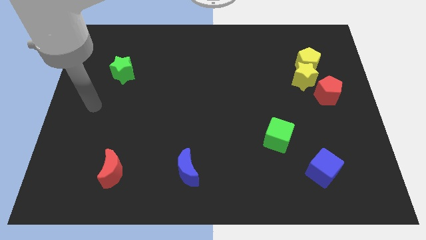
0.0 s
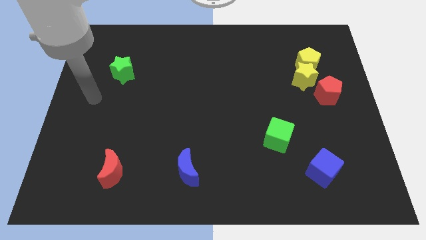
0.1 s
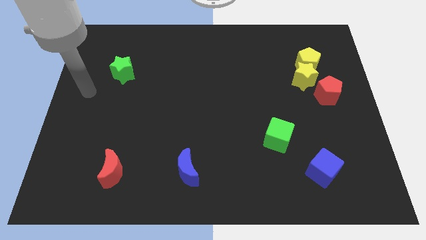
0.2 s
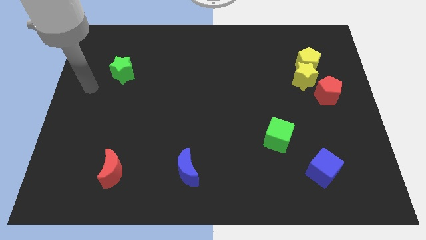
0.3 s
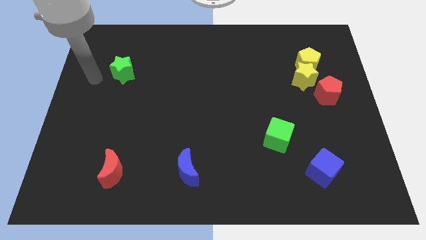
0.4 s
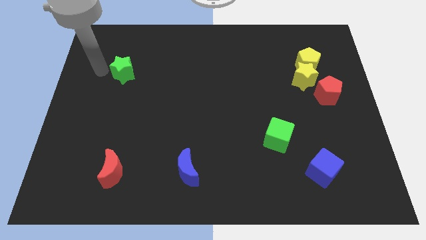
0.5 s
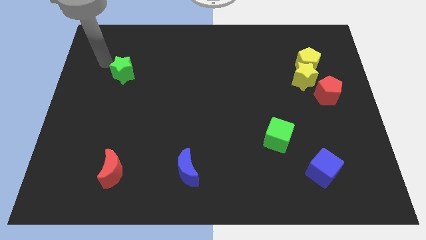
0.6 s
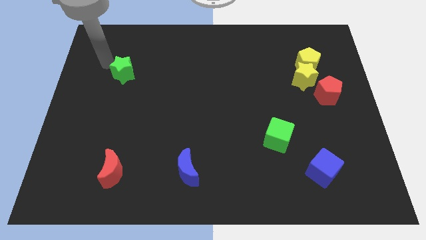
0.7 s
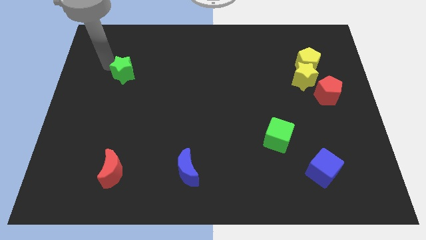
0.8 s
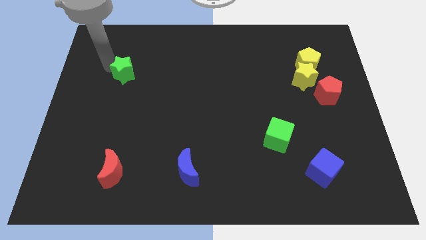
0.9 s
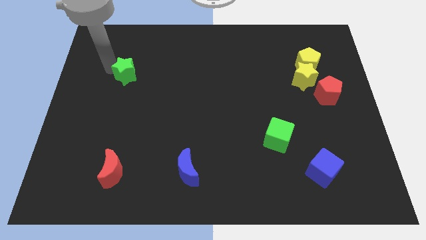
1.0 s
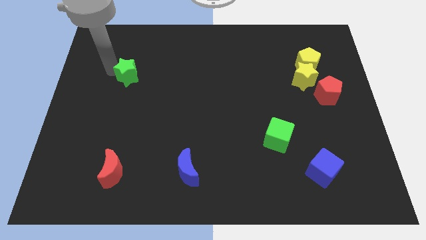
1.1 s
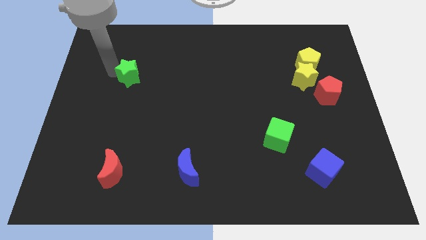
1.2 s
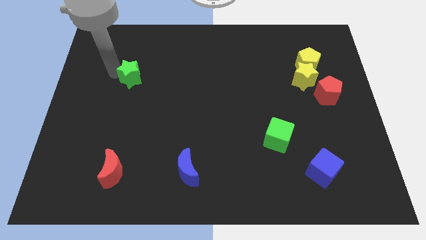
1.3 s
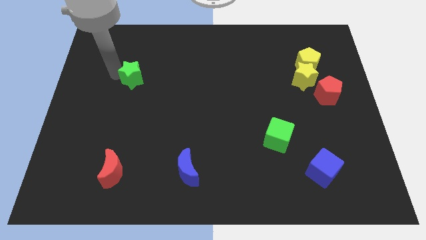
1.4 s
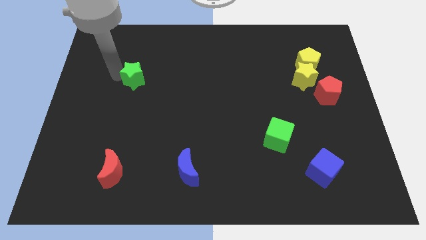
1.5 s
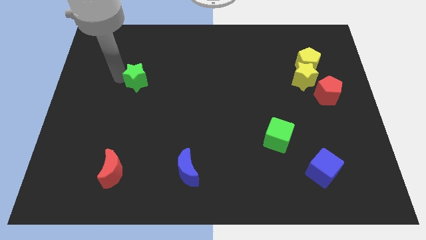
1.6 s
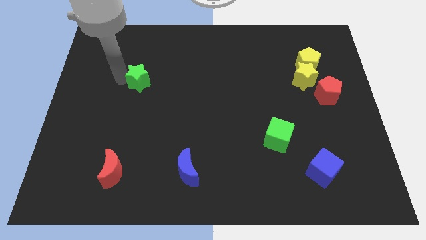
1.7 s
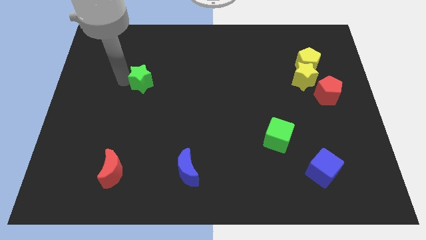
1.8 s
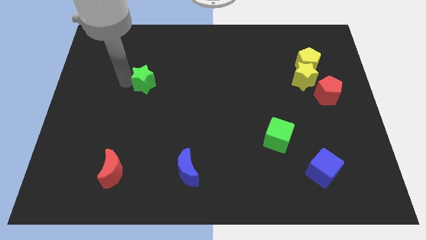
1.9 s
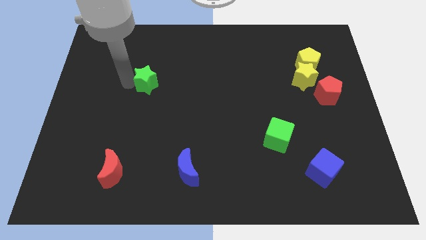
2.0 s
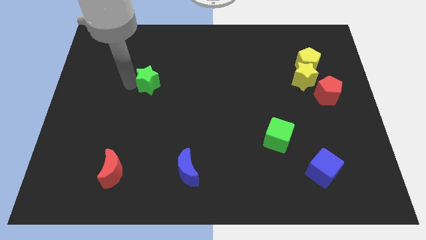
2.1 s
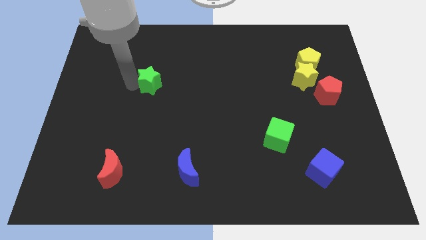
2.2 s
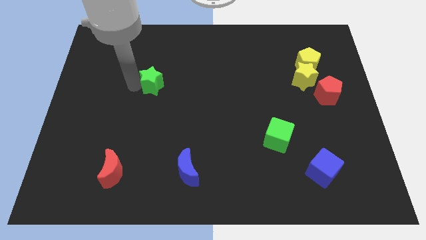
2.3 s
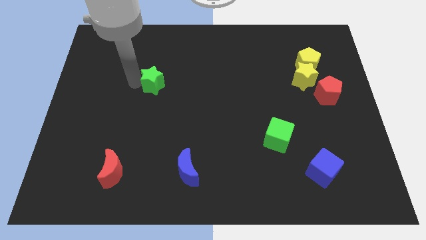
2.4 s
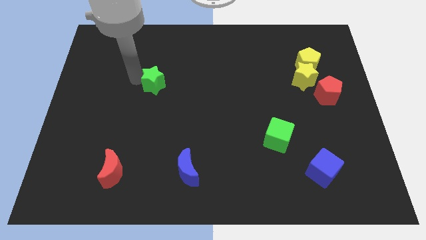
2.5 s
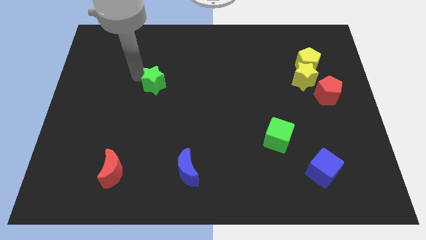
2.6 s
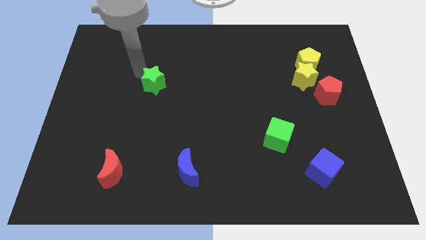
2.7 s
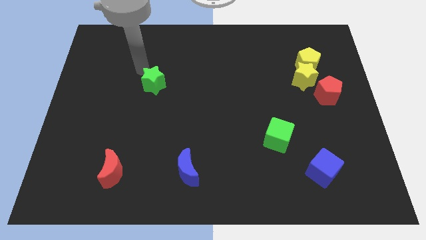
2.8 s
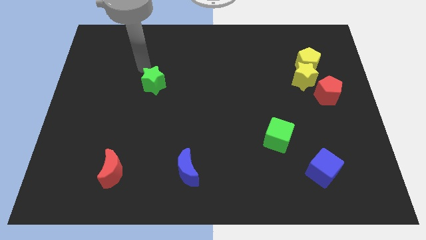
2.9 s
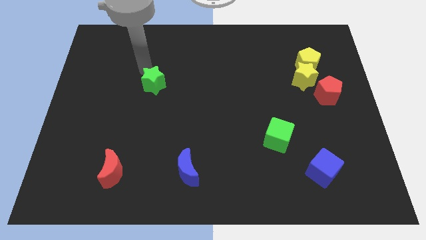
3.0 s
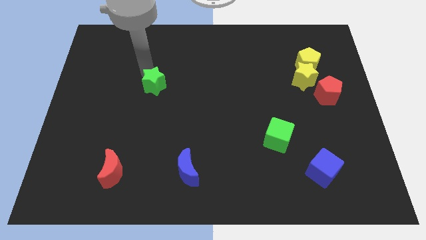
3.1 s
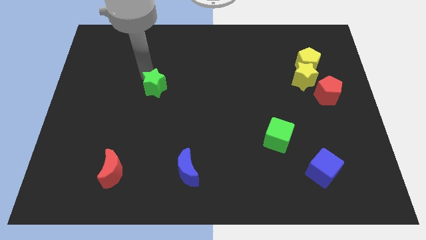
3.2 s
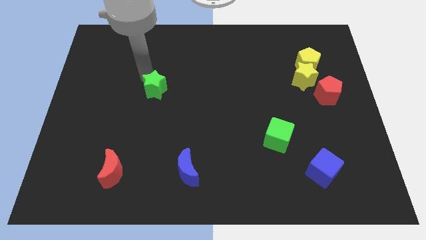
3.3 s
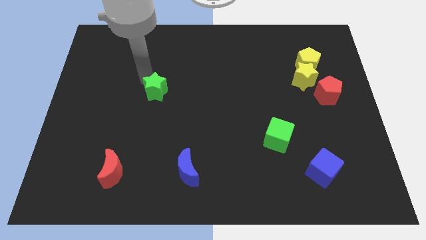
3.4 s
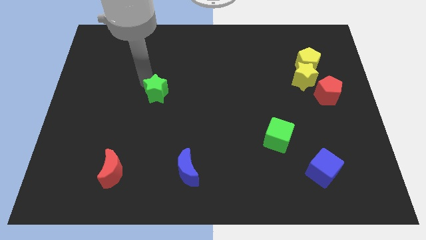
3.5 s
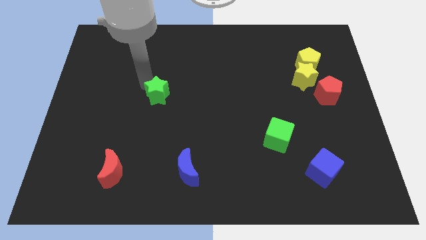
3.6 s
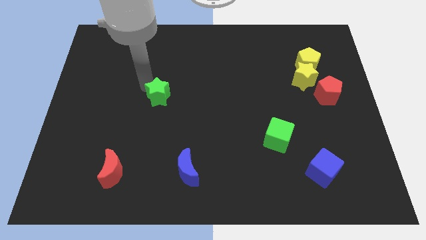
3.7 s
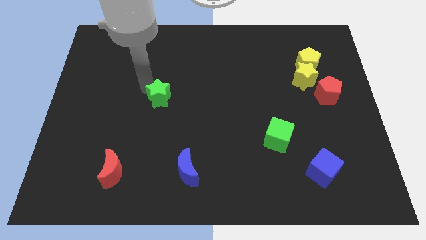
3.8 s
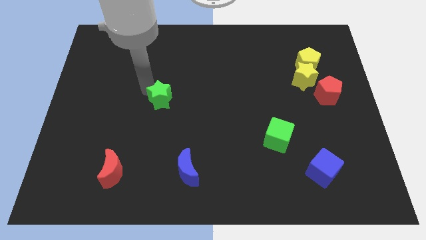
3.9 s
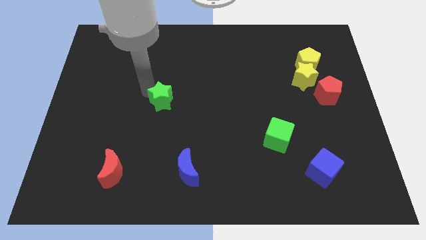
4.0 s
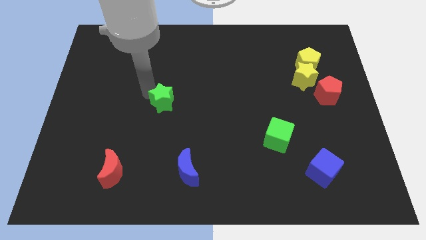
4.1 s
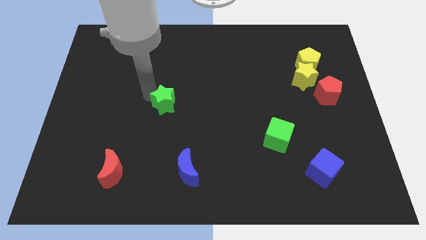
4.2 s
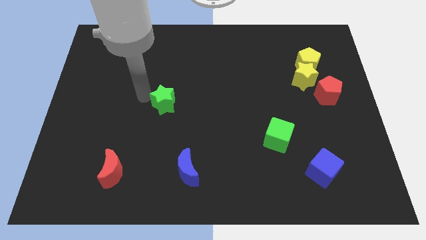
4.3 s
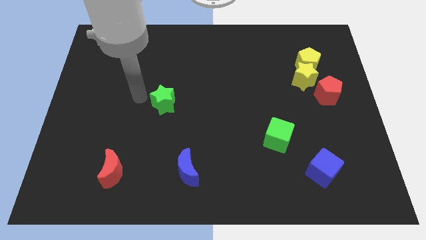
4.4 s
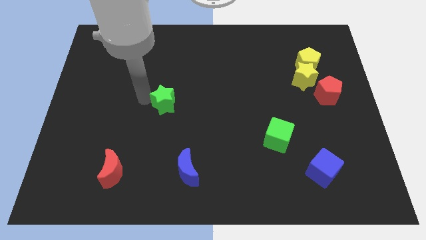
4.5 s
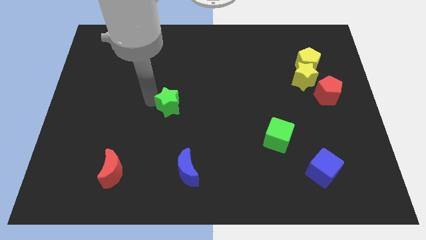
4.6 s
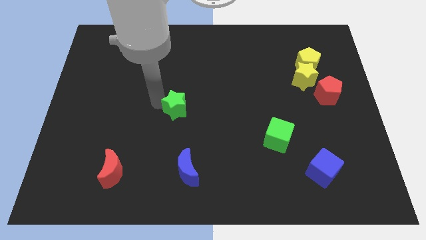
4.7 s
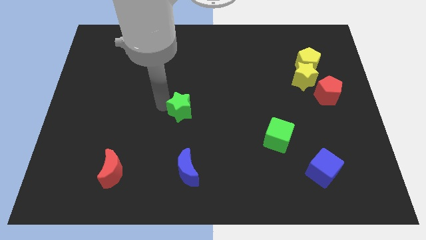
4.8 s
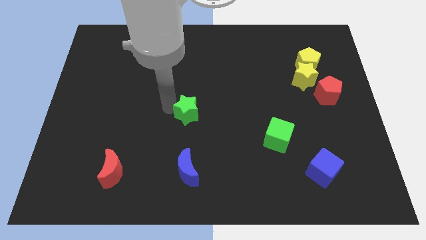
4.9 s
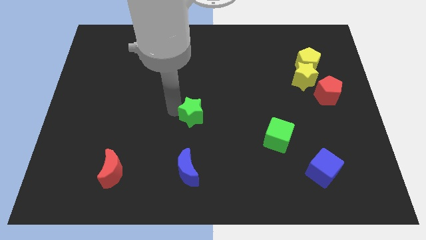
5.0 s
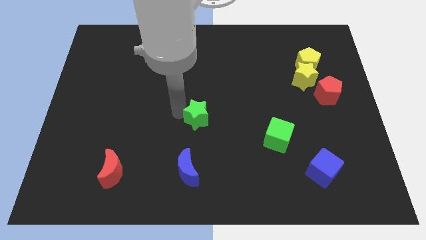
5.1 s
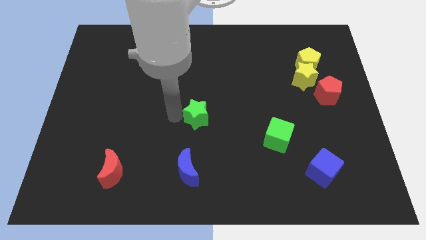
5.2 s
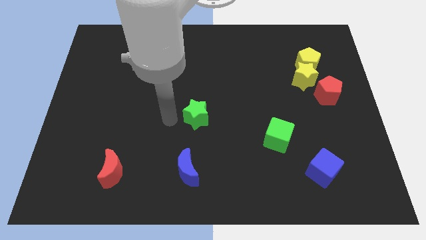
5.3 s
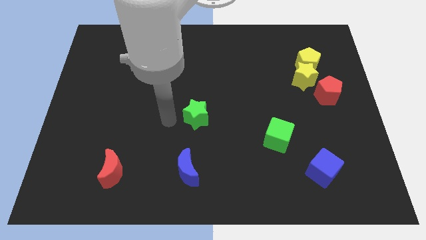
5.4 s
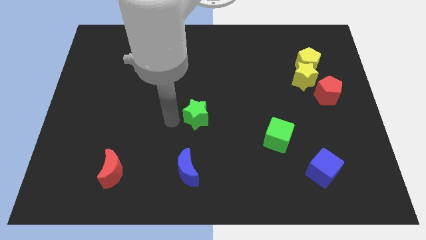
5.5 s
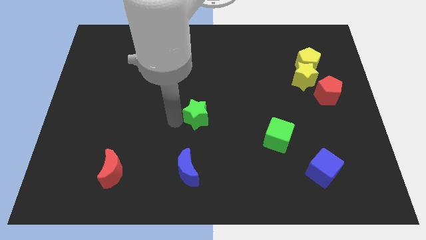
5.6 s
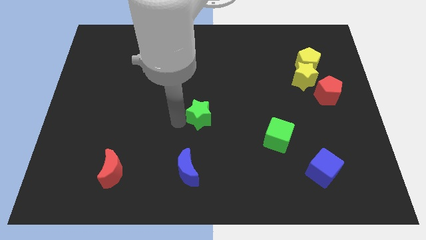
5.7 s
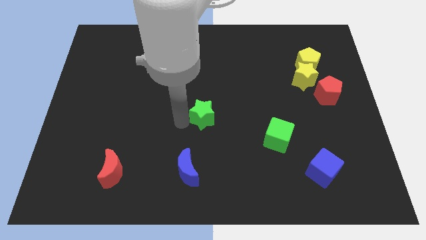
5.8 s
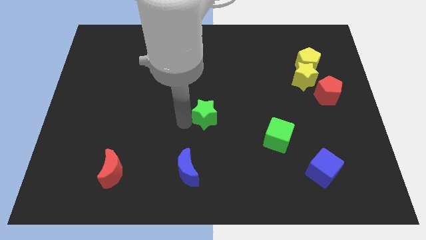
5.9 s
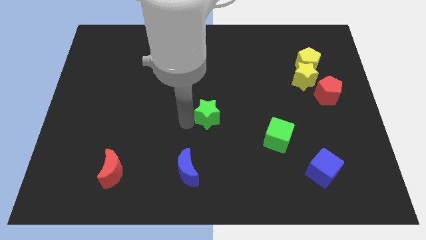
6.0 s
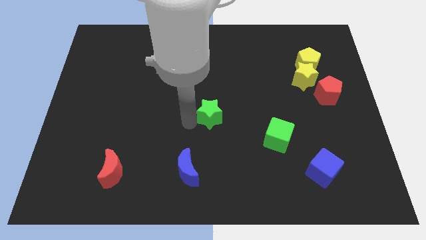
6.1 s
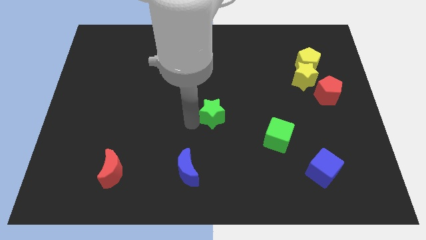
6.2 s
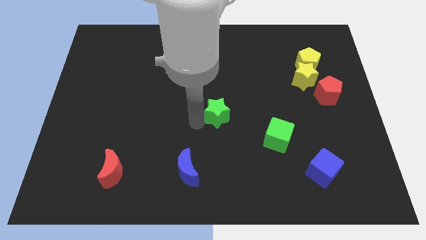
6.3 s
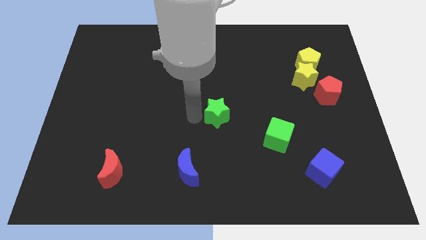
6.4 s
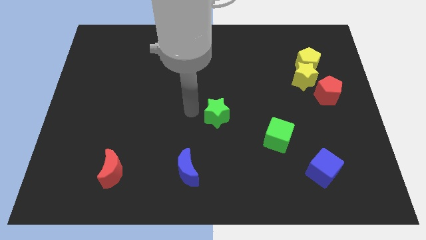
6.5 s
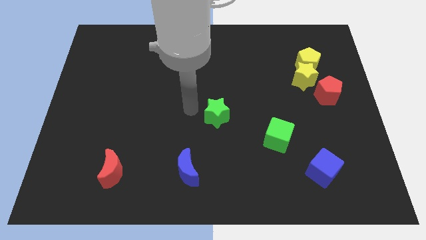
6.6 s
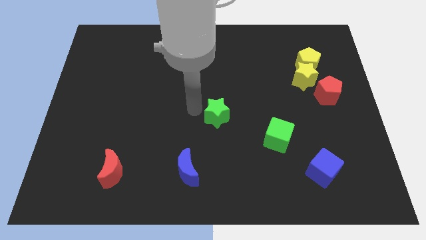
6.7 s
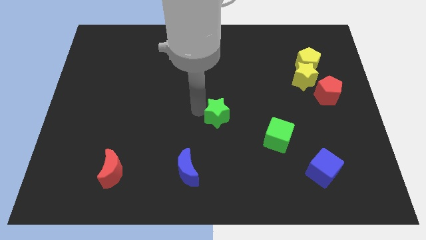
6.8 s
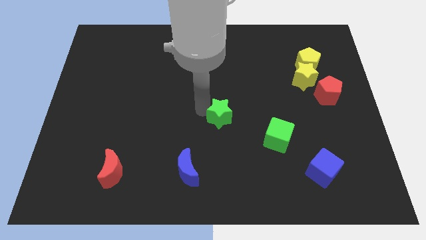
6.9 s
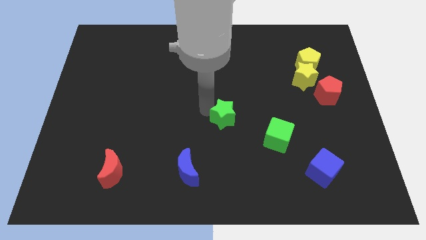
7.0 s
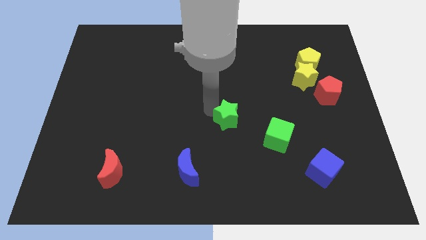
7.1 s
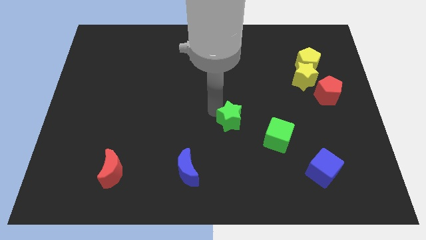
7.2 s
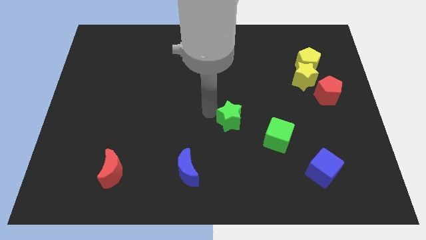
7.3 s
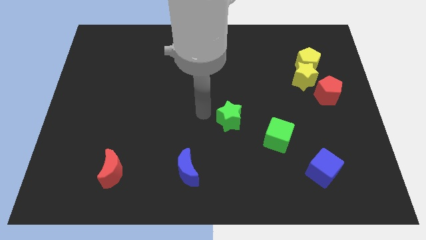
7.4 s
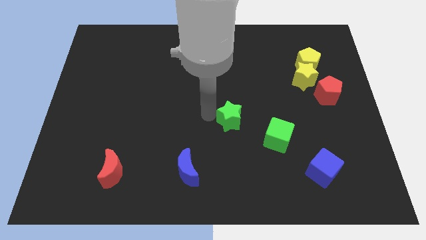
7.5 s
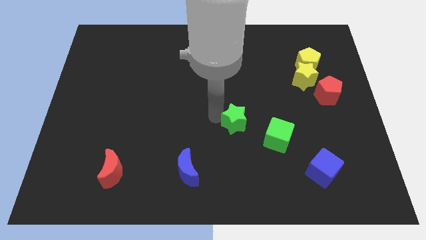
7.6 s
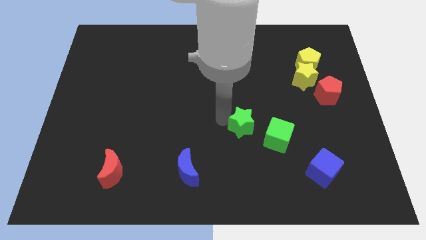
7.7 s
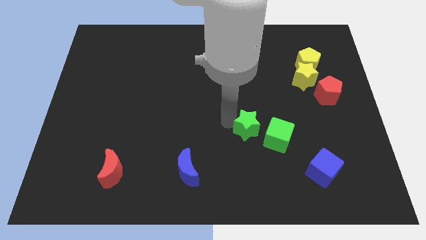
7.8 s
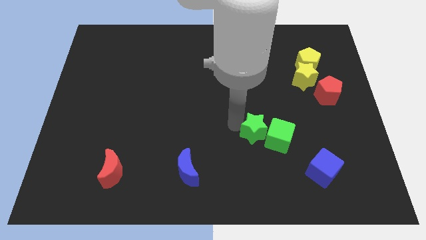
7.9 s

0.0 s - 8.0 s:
slide the green star to the green cube
